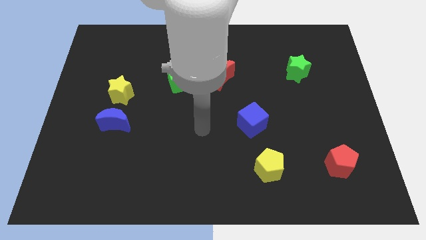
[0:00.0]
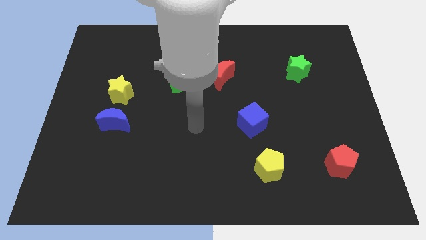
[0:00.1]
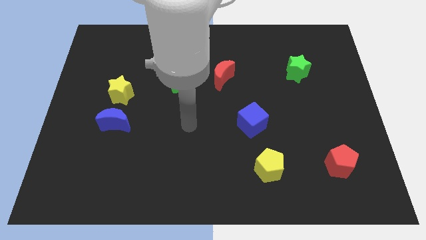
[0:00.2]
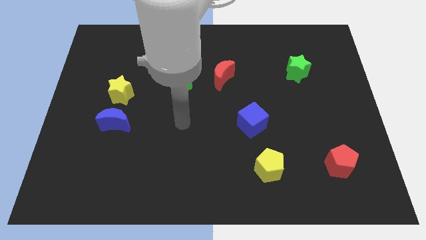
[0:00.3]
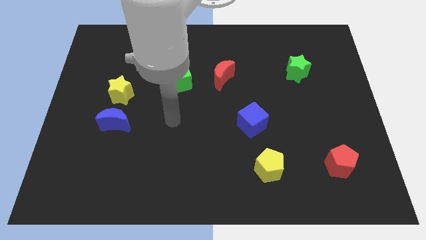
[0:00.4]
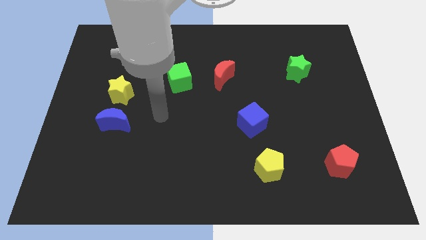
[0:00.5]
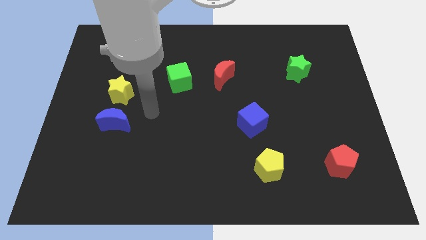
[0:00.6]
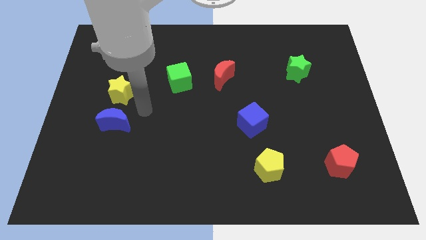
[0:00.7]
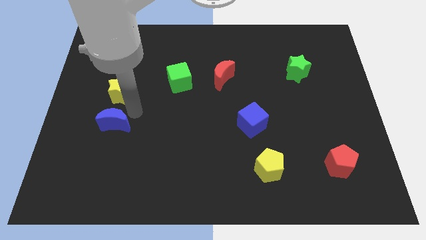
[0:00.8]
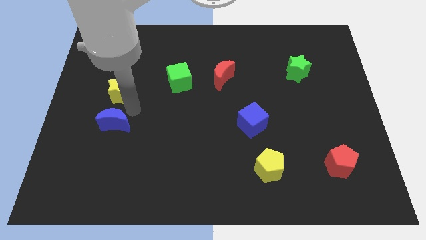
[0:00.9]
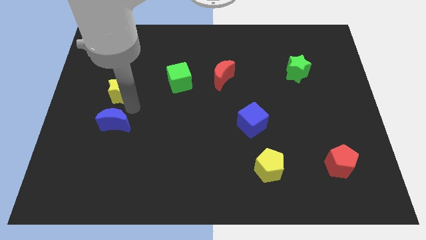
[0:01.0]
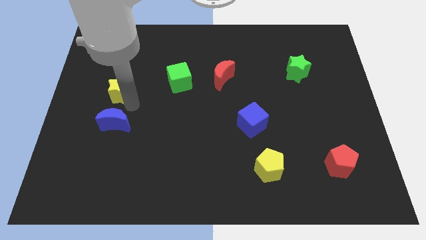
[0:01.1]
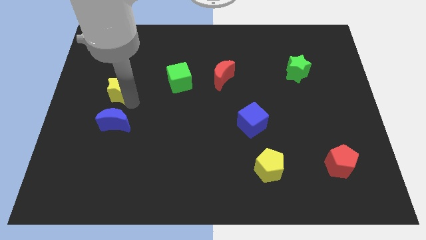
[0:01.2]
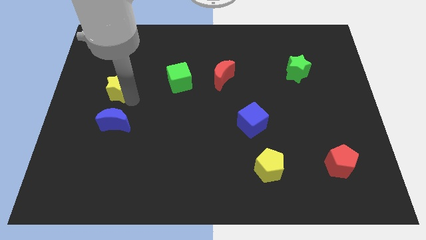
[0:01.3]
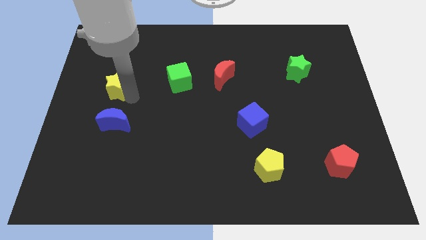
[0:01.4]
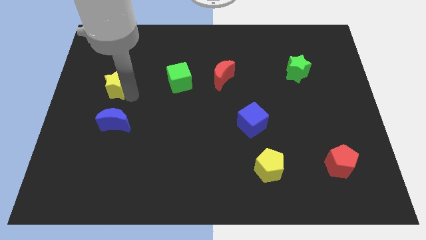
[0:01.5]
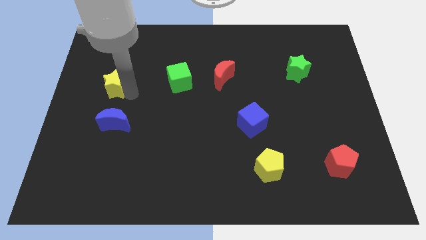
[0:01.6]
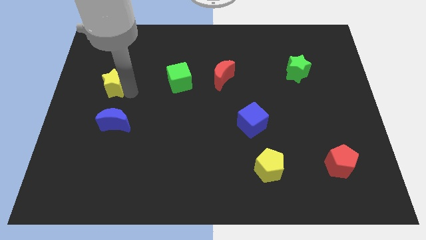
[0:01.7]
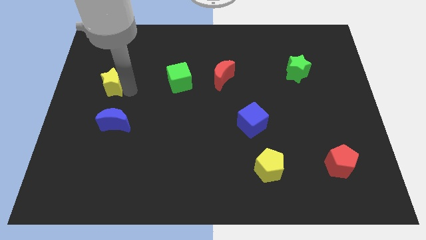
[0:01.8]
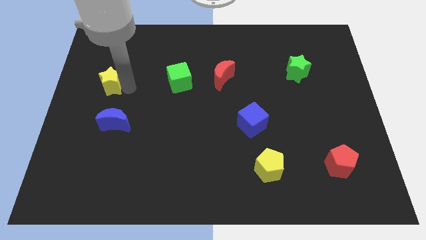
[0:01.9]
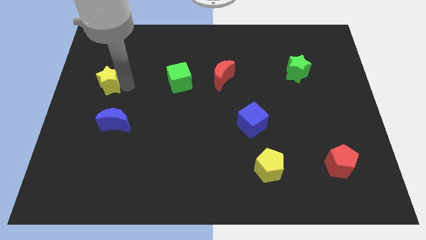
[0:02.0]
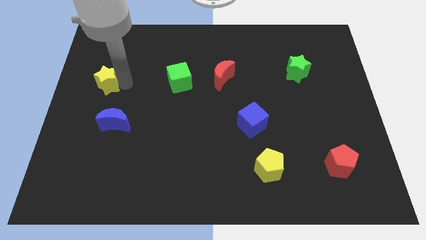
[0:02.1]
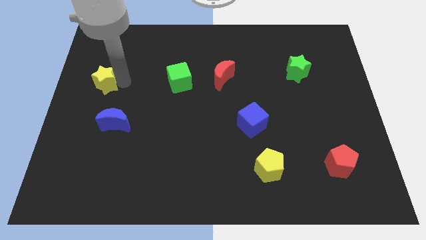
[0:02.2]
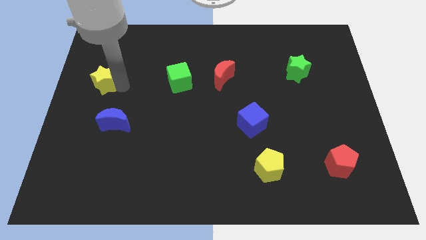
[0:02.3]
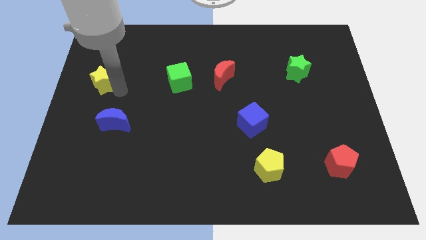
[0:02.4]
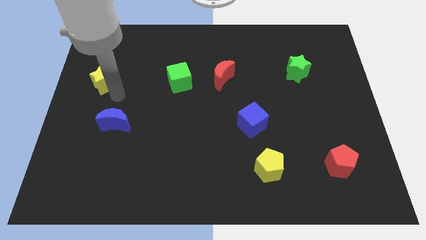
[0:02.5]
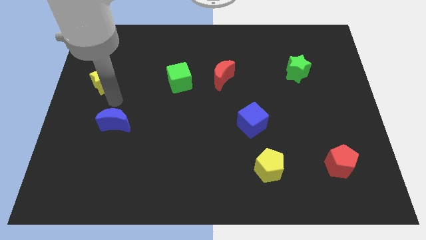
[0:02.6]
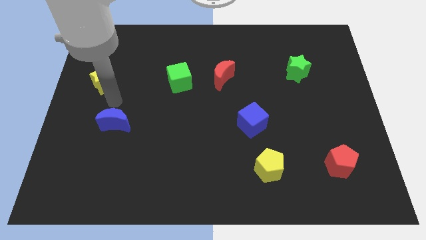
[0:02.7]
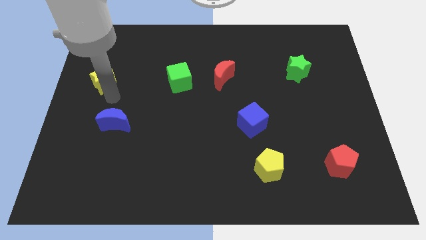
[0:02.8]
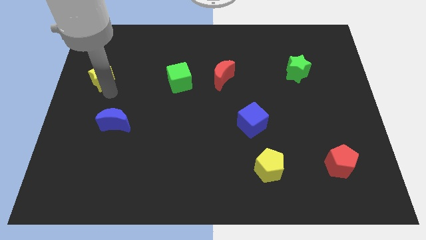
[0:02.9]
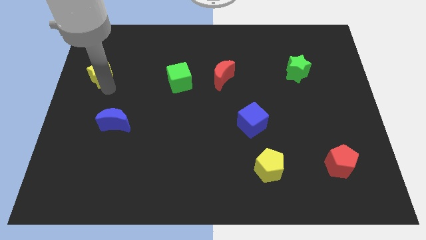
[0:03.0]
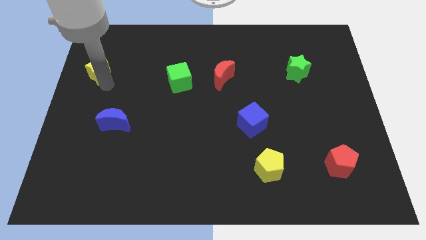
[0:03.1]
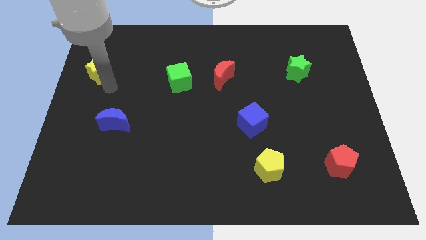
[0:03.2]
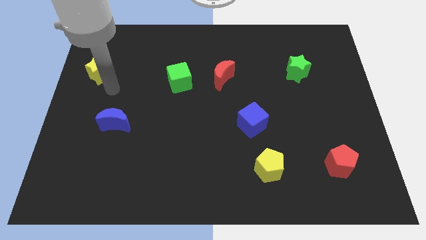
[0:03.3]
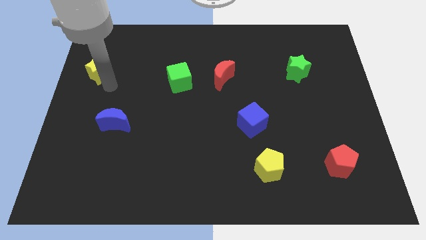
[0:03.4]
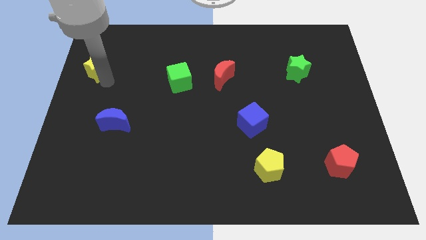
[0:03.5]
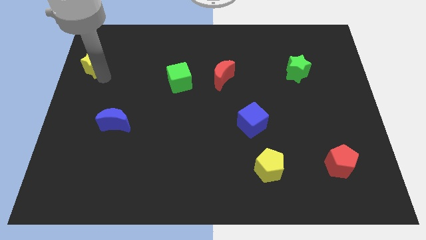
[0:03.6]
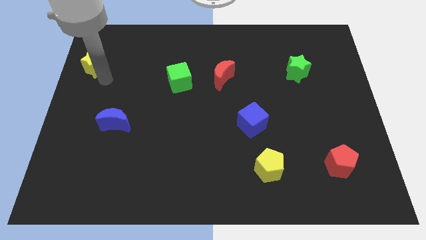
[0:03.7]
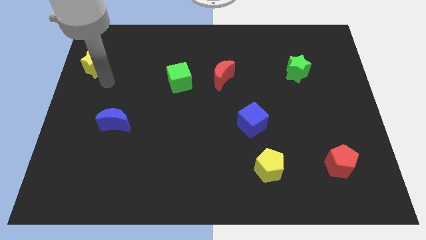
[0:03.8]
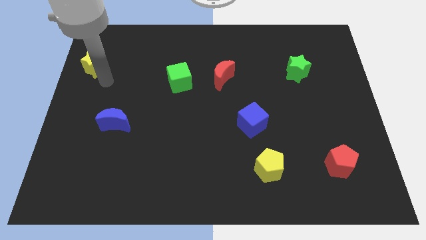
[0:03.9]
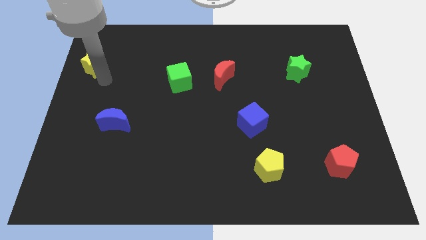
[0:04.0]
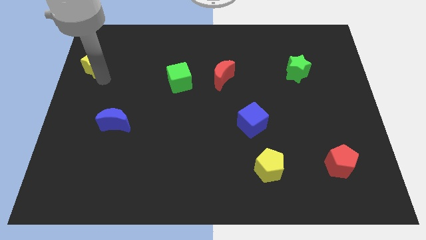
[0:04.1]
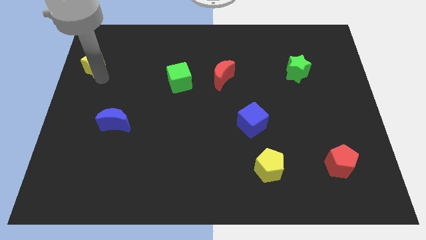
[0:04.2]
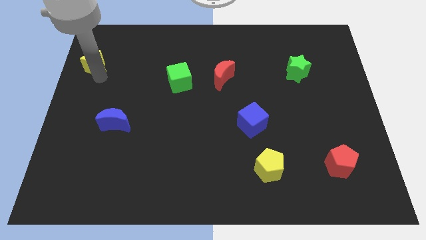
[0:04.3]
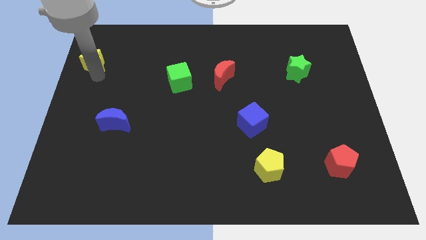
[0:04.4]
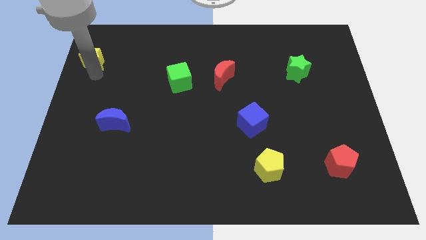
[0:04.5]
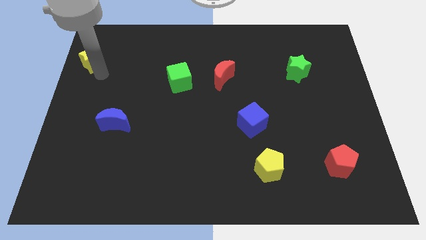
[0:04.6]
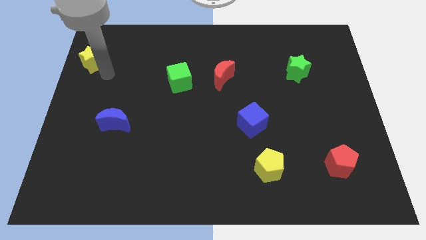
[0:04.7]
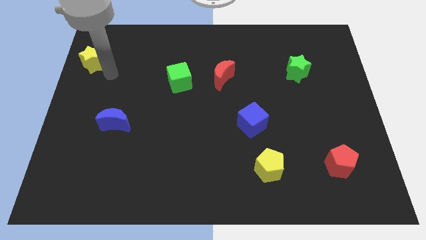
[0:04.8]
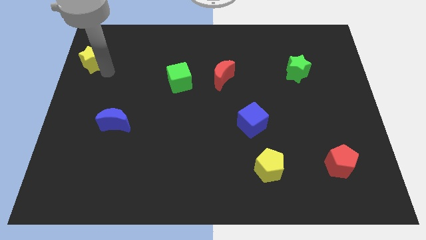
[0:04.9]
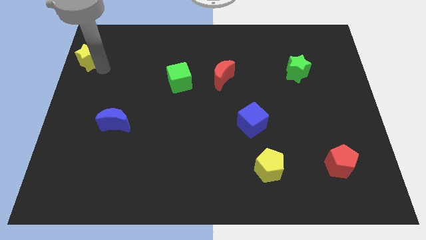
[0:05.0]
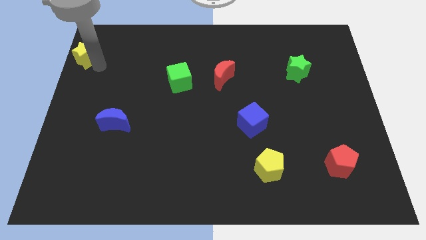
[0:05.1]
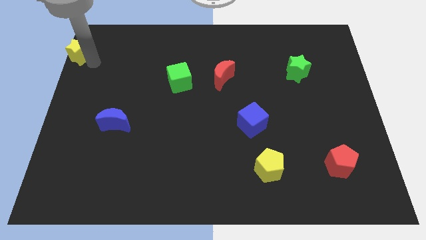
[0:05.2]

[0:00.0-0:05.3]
move the yellow star to the top left
